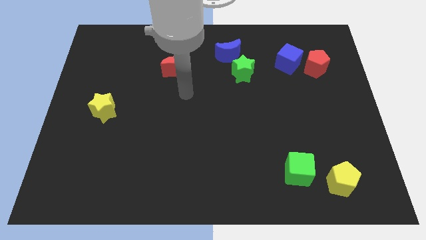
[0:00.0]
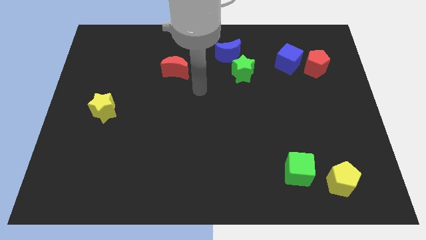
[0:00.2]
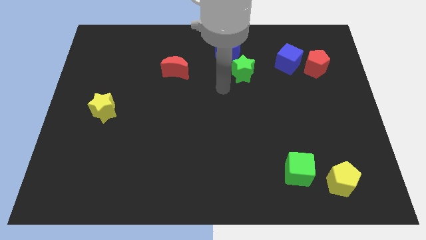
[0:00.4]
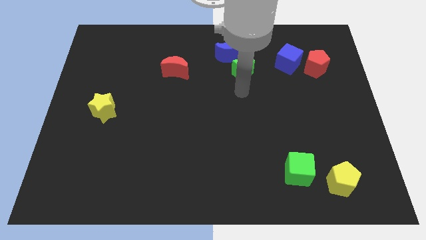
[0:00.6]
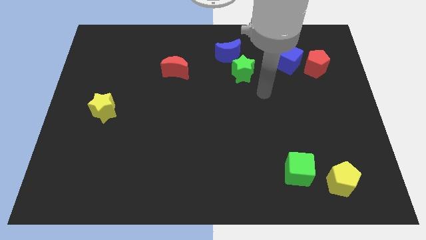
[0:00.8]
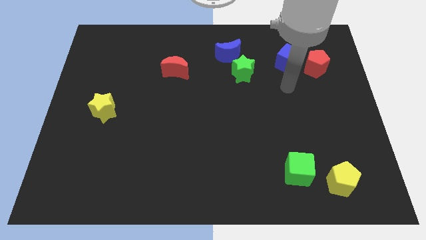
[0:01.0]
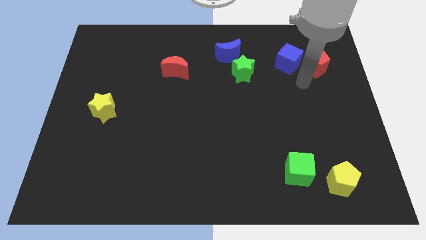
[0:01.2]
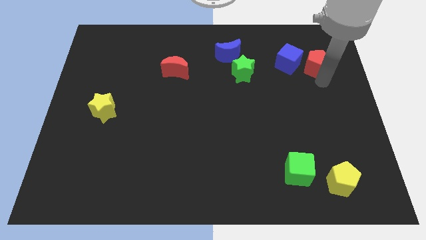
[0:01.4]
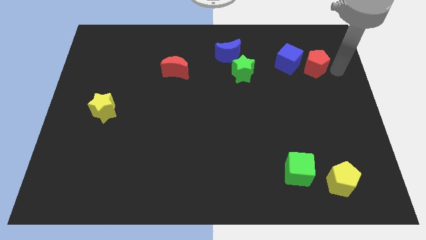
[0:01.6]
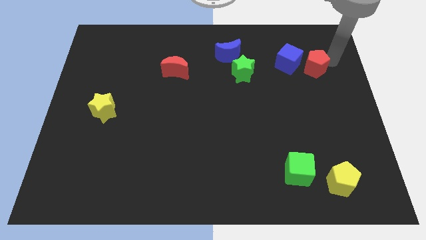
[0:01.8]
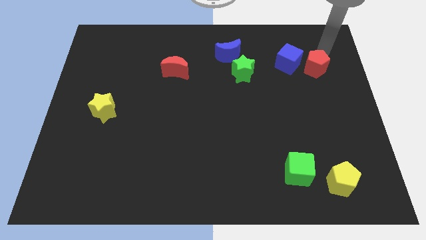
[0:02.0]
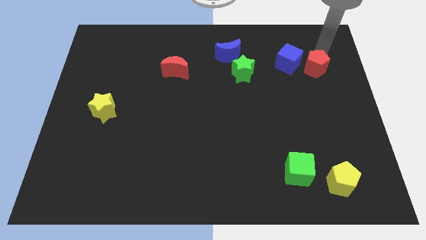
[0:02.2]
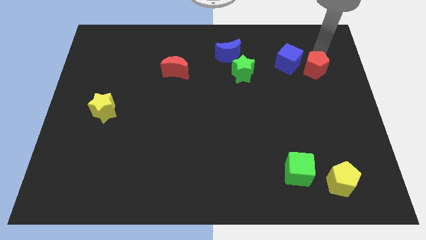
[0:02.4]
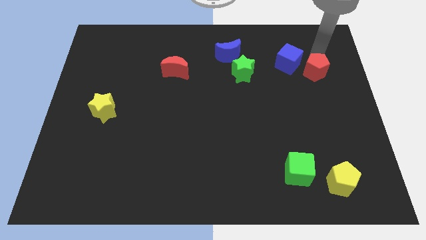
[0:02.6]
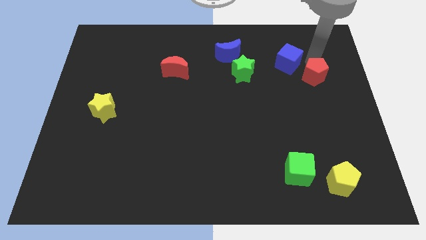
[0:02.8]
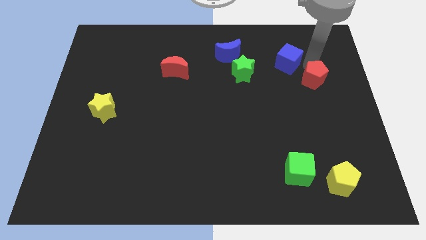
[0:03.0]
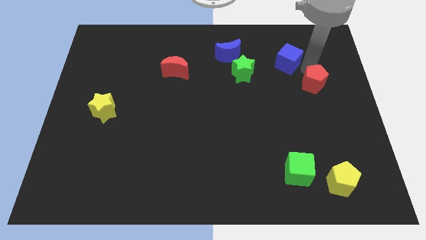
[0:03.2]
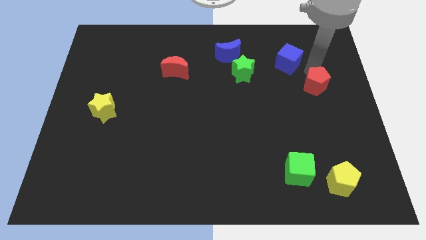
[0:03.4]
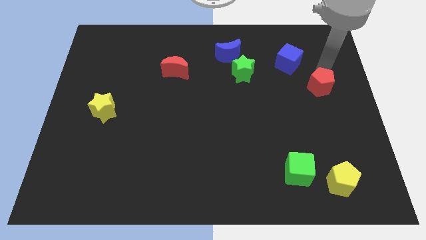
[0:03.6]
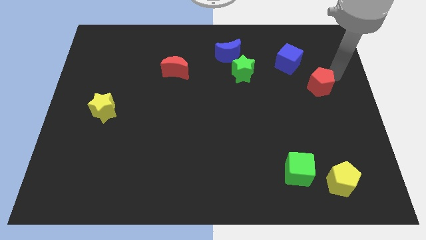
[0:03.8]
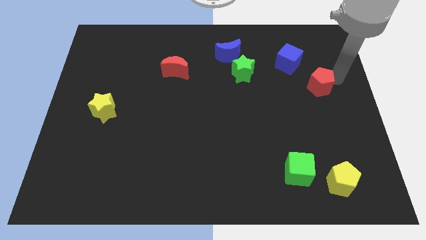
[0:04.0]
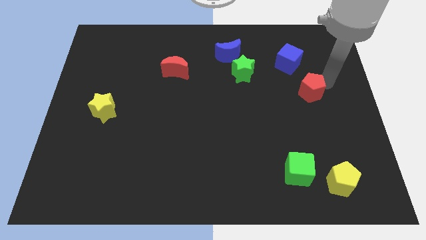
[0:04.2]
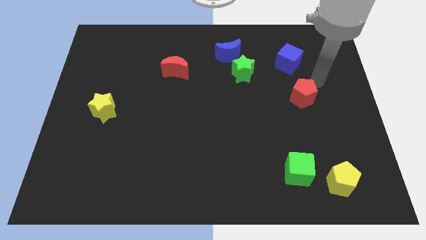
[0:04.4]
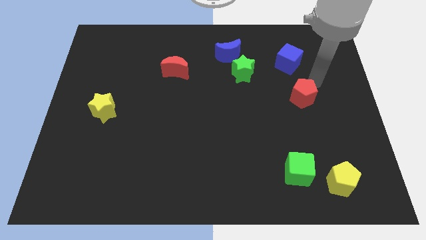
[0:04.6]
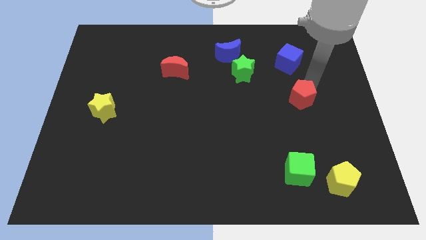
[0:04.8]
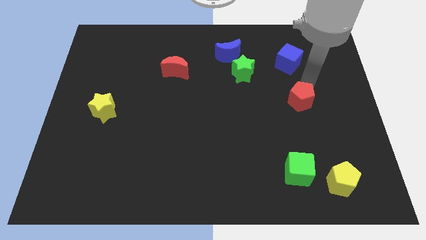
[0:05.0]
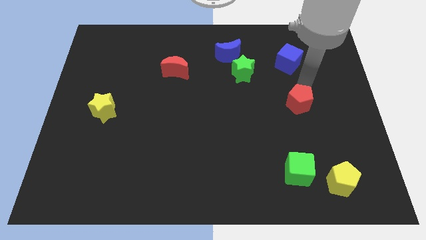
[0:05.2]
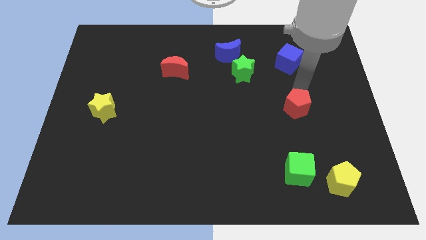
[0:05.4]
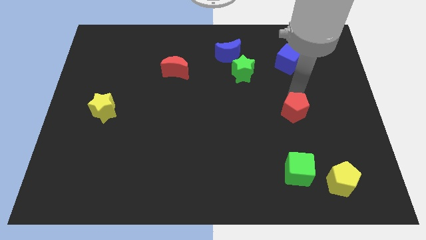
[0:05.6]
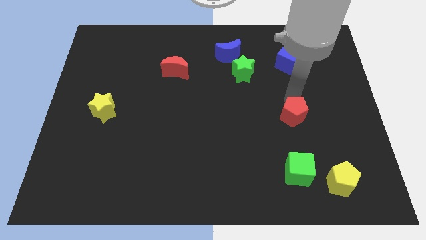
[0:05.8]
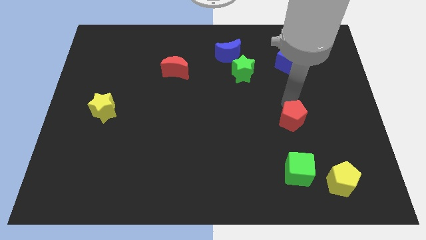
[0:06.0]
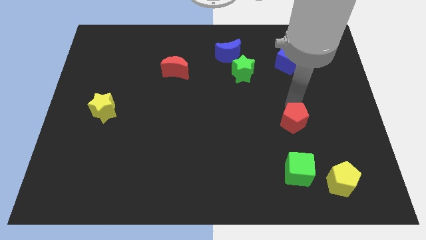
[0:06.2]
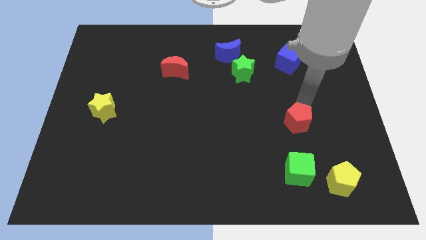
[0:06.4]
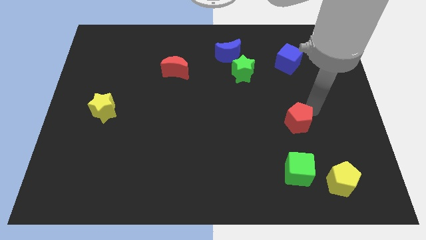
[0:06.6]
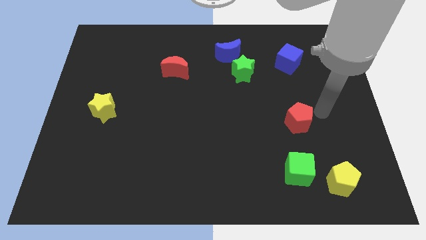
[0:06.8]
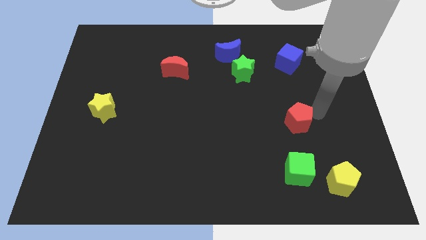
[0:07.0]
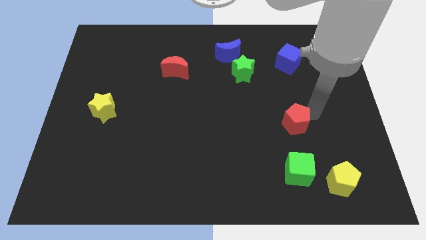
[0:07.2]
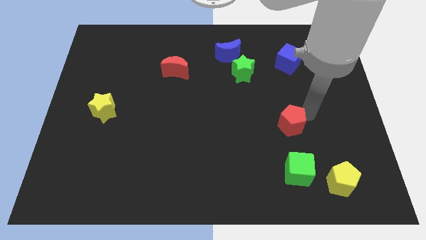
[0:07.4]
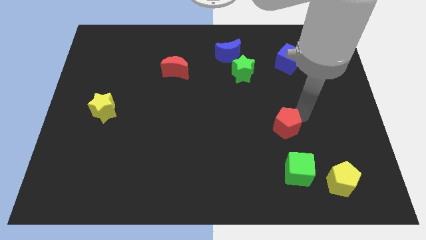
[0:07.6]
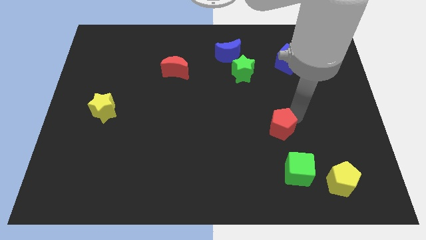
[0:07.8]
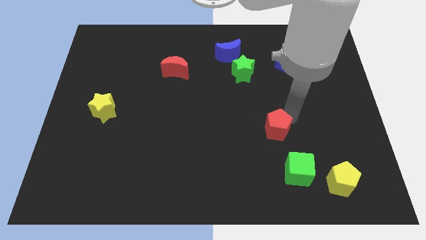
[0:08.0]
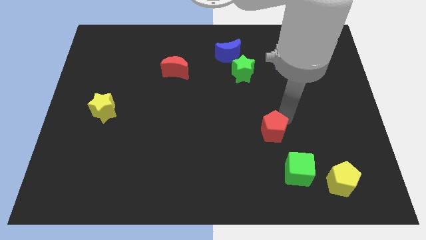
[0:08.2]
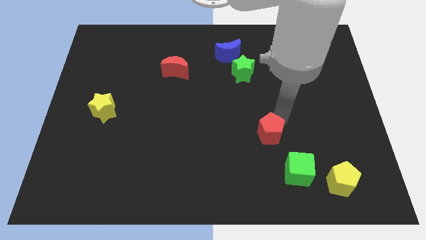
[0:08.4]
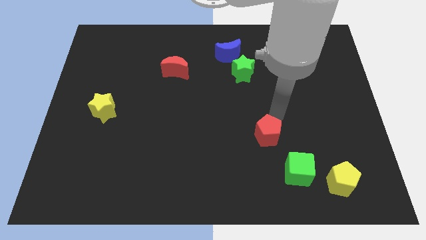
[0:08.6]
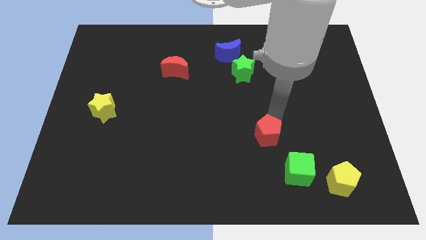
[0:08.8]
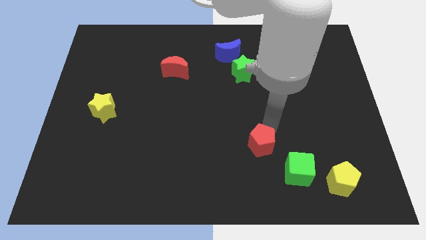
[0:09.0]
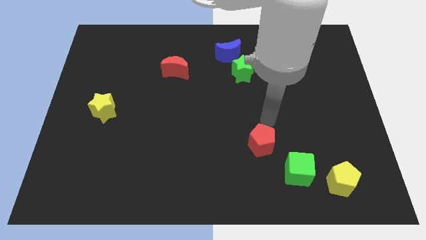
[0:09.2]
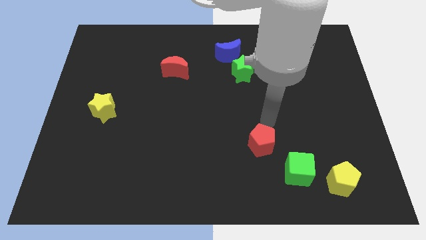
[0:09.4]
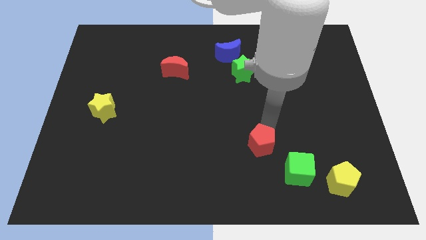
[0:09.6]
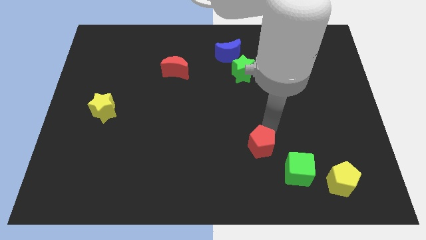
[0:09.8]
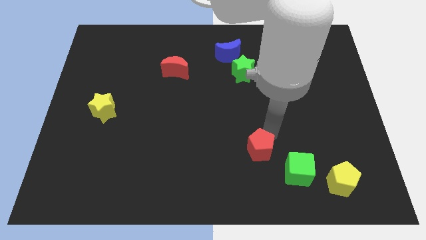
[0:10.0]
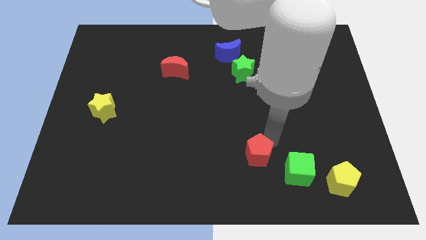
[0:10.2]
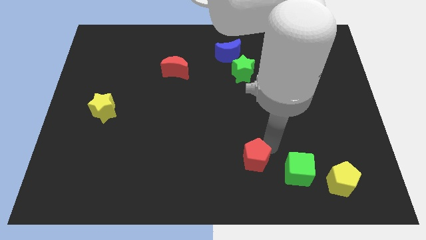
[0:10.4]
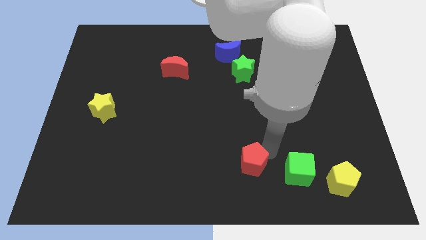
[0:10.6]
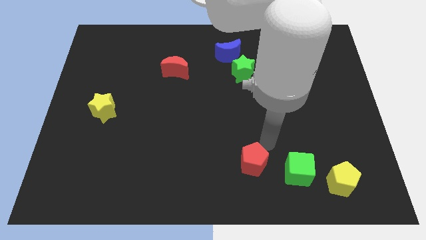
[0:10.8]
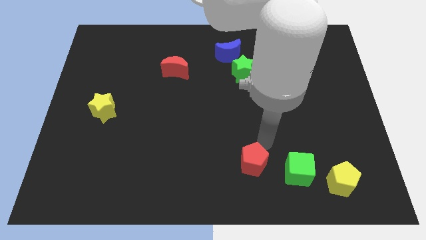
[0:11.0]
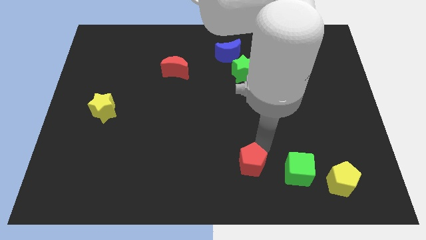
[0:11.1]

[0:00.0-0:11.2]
slide the red pentagon to the bottom side

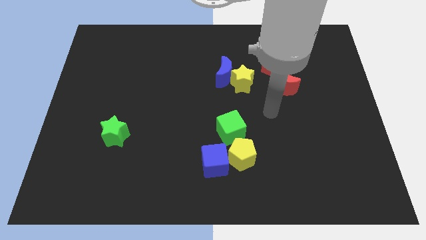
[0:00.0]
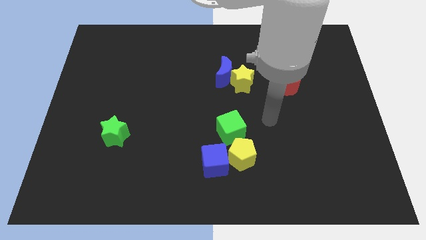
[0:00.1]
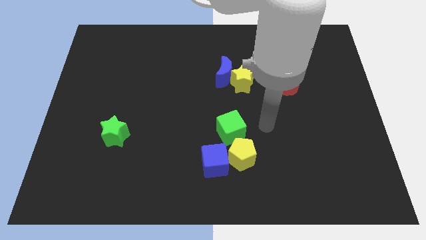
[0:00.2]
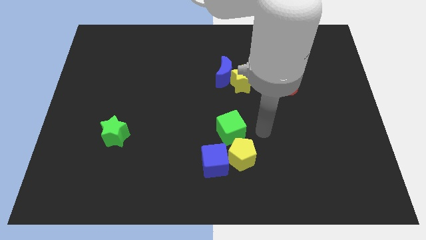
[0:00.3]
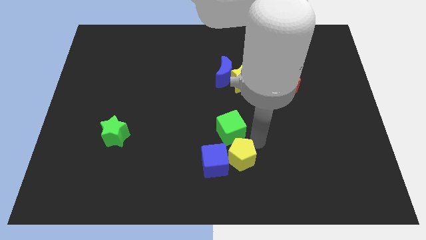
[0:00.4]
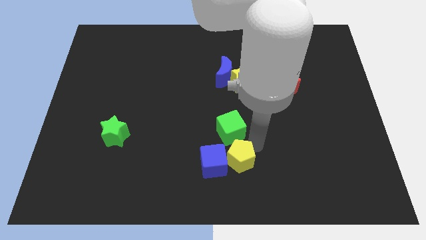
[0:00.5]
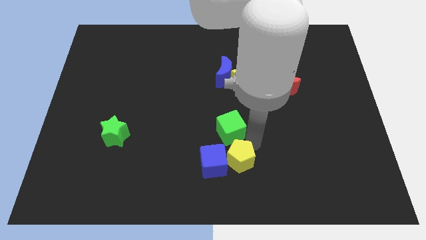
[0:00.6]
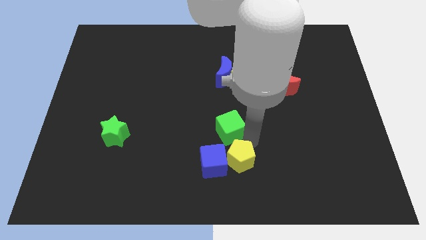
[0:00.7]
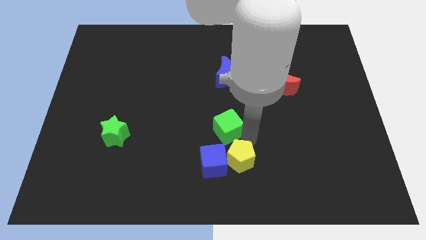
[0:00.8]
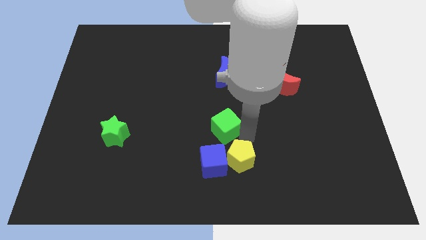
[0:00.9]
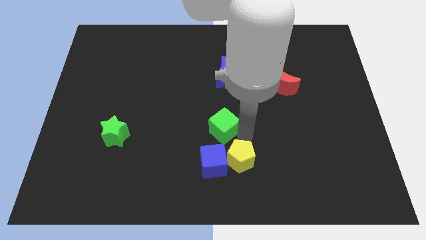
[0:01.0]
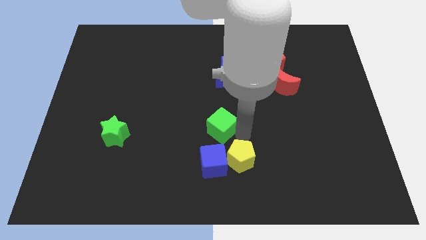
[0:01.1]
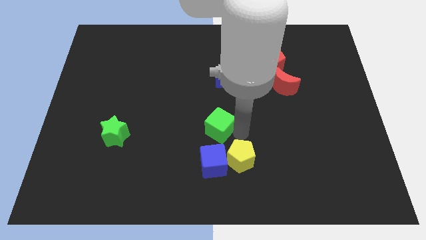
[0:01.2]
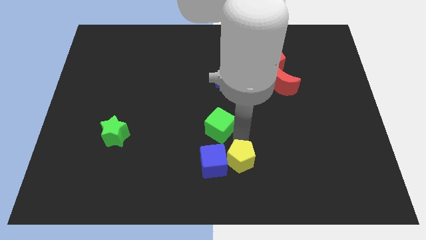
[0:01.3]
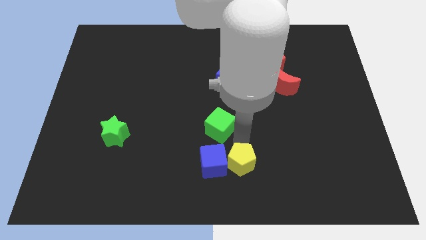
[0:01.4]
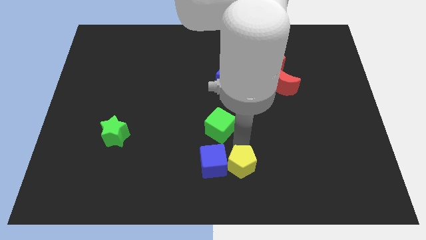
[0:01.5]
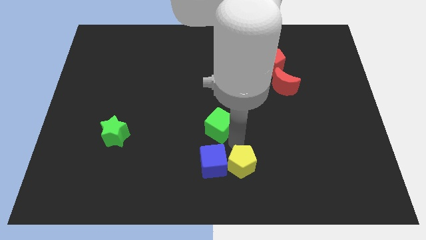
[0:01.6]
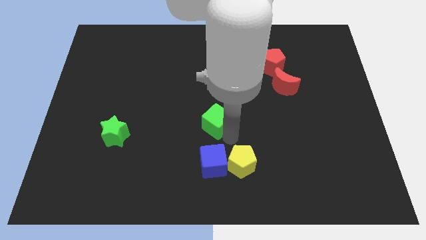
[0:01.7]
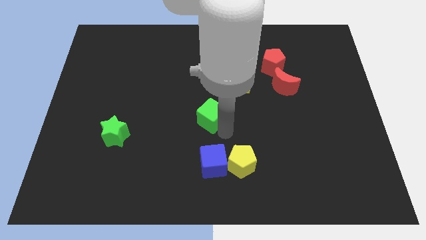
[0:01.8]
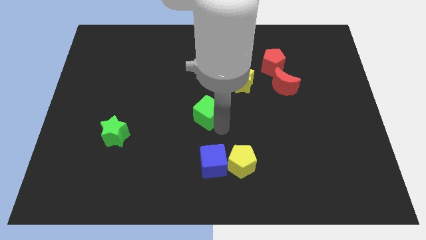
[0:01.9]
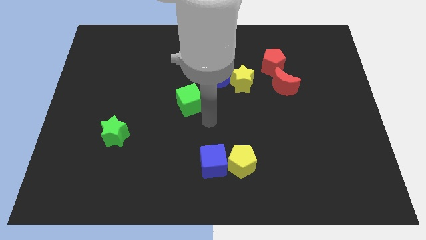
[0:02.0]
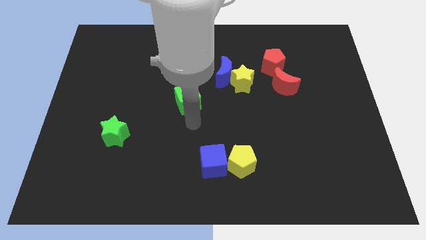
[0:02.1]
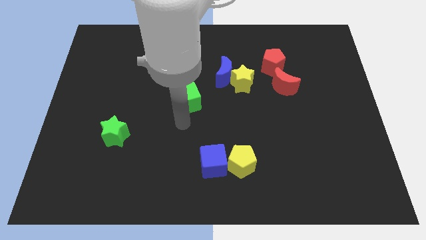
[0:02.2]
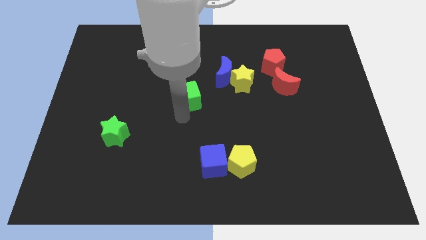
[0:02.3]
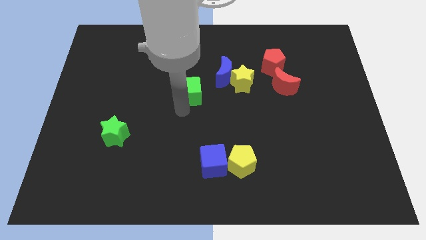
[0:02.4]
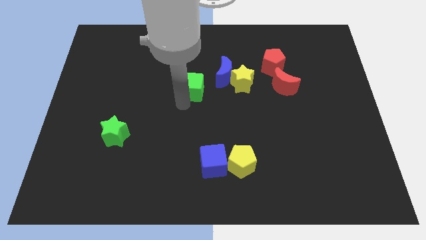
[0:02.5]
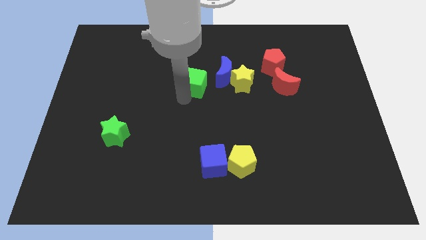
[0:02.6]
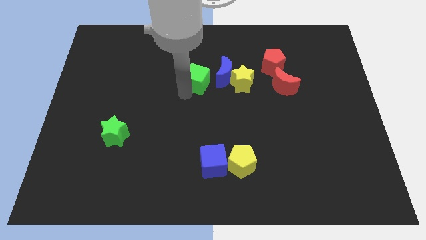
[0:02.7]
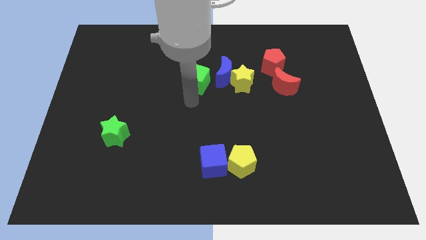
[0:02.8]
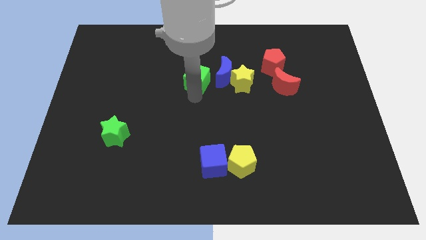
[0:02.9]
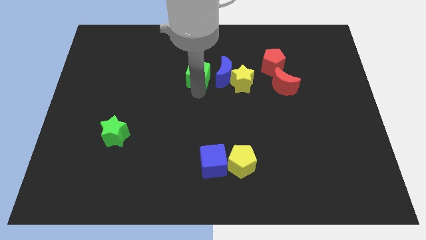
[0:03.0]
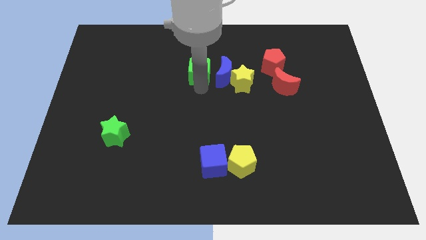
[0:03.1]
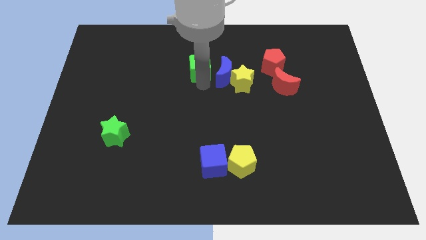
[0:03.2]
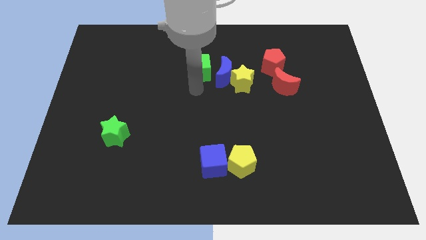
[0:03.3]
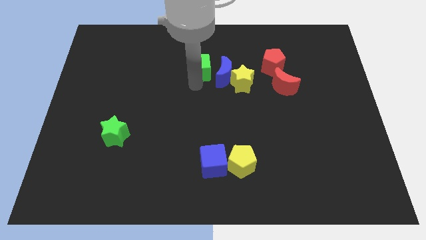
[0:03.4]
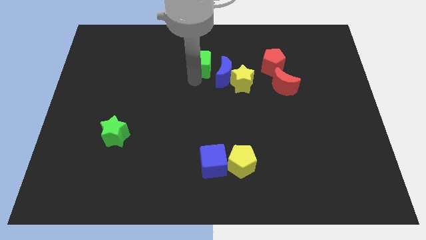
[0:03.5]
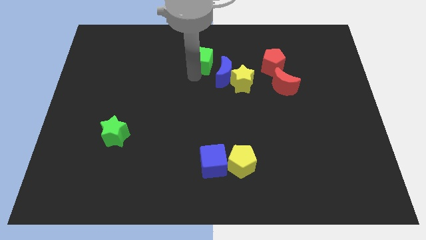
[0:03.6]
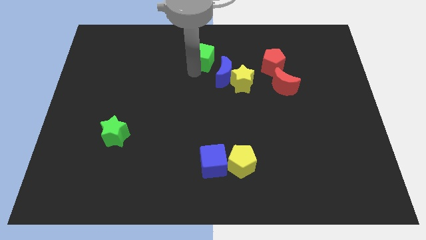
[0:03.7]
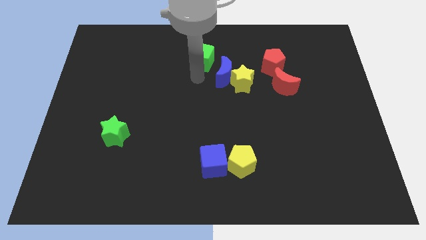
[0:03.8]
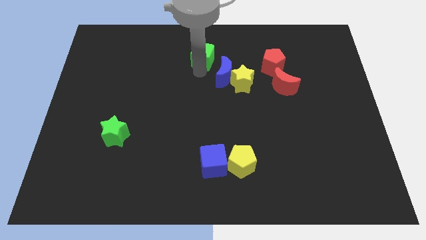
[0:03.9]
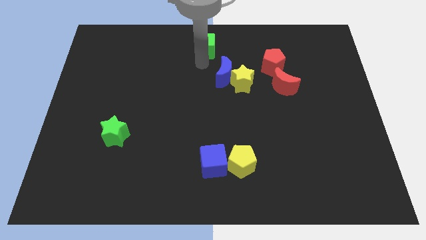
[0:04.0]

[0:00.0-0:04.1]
slide the green cube to the top
